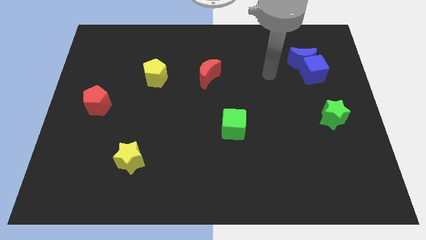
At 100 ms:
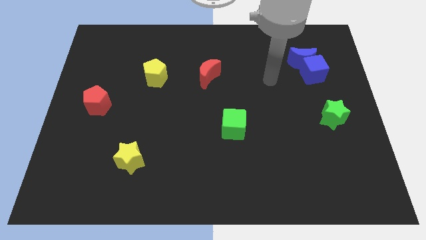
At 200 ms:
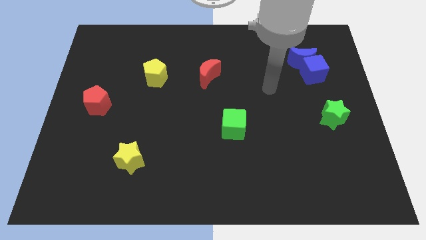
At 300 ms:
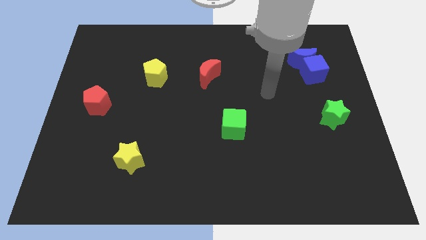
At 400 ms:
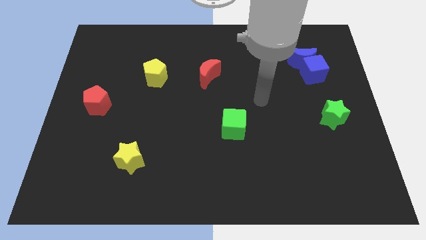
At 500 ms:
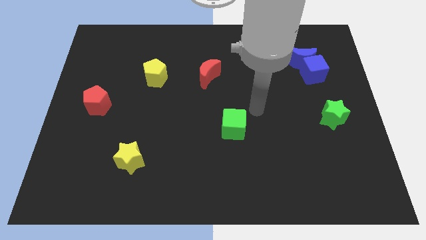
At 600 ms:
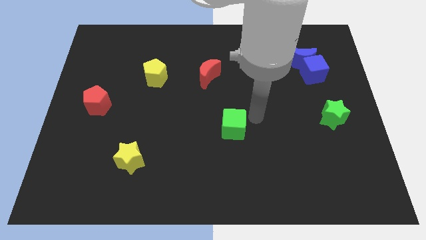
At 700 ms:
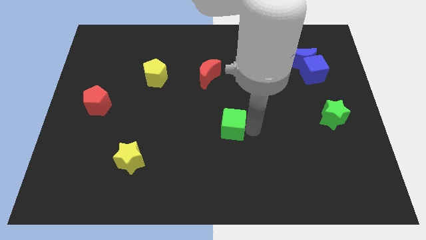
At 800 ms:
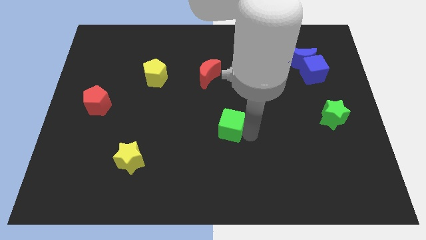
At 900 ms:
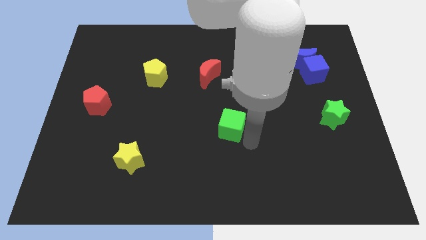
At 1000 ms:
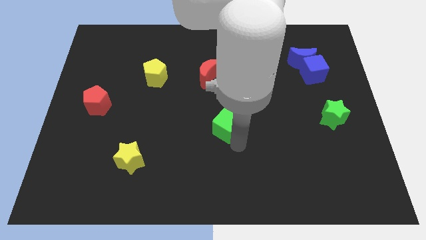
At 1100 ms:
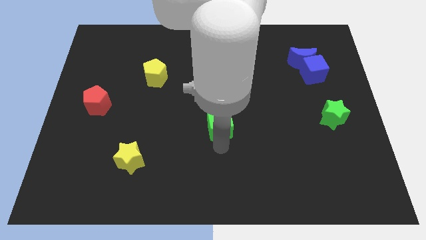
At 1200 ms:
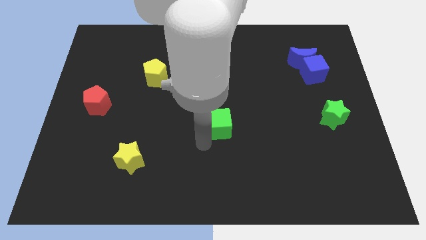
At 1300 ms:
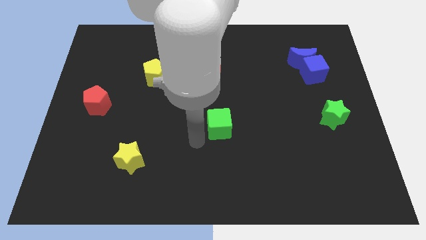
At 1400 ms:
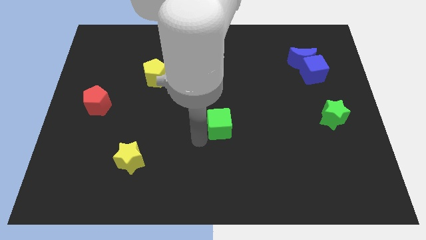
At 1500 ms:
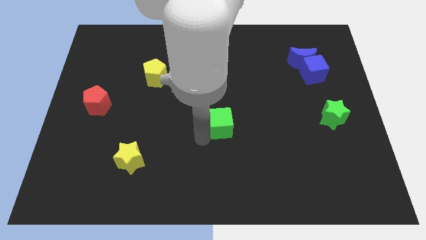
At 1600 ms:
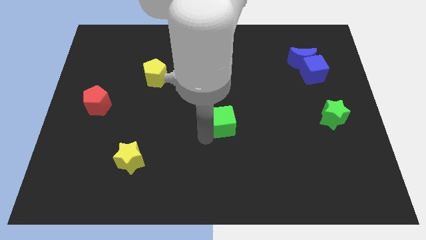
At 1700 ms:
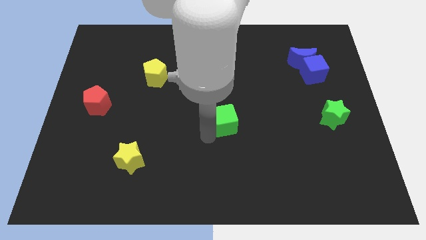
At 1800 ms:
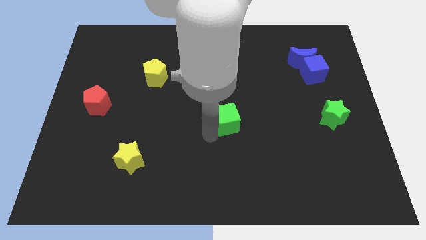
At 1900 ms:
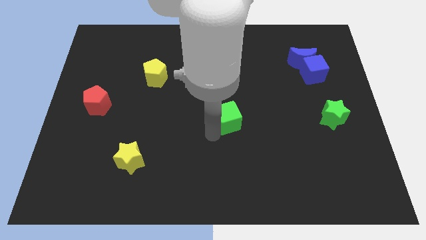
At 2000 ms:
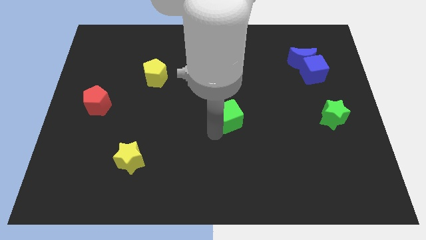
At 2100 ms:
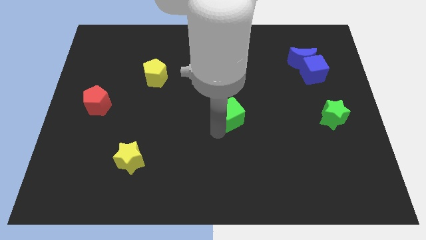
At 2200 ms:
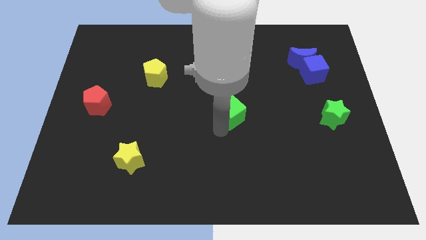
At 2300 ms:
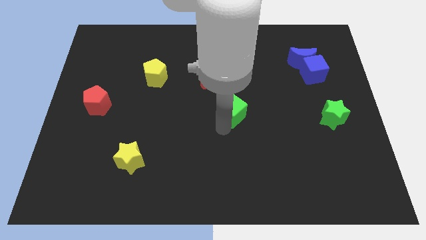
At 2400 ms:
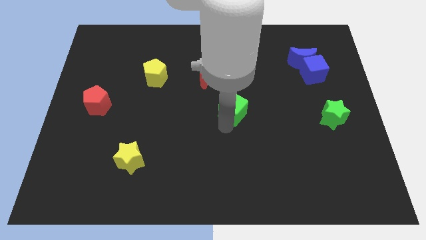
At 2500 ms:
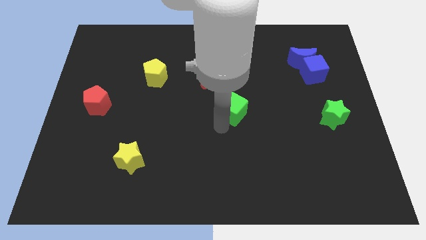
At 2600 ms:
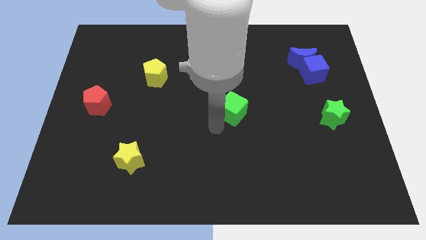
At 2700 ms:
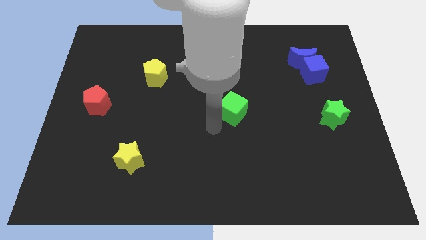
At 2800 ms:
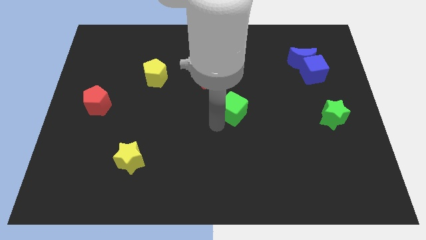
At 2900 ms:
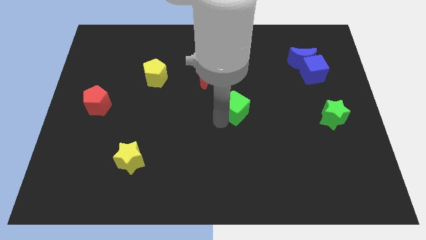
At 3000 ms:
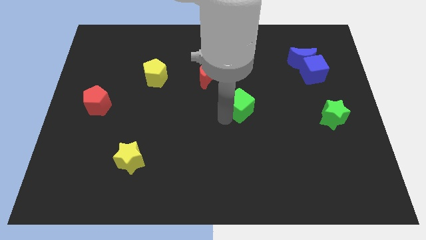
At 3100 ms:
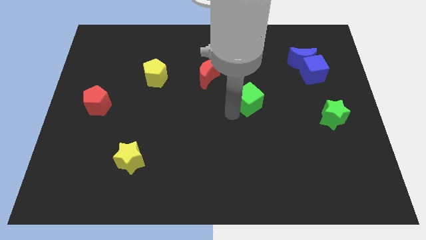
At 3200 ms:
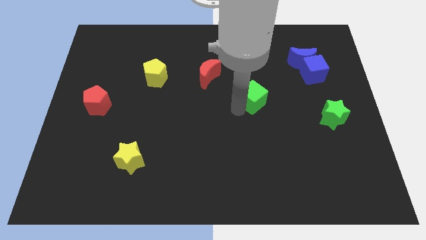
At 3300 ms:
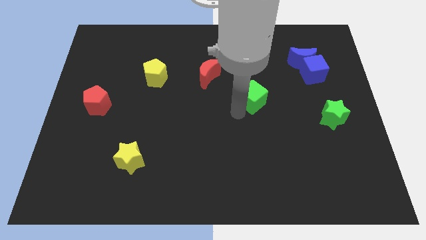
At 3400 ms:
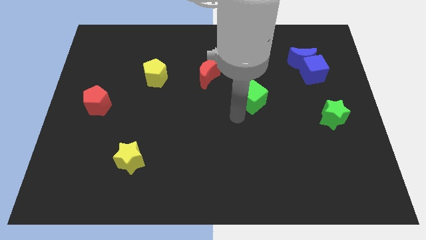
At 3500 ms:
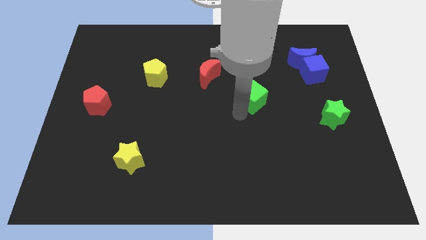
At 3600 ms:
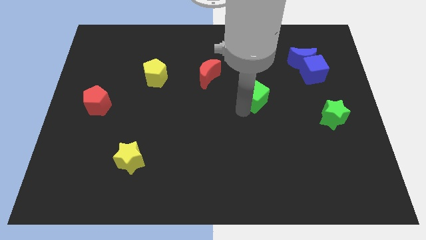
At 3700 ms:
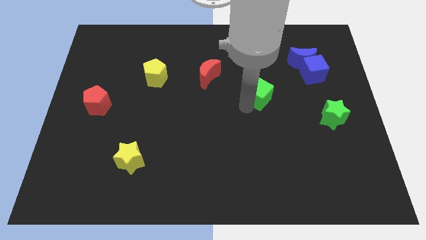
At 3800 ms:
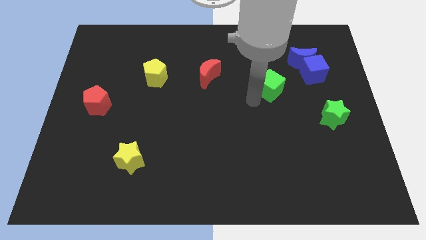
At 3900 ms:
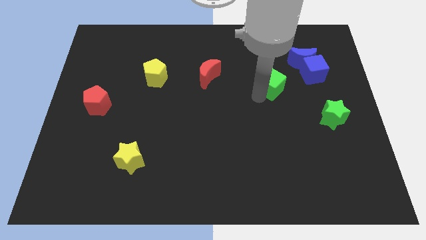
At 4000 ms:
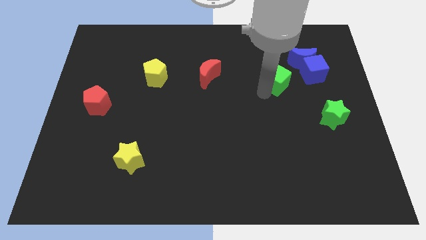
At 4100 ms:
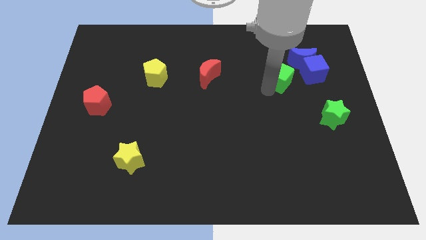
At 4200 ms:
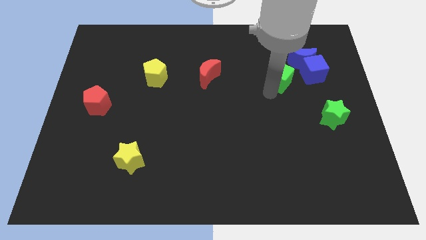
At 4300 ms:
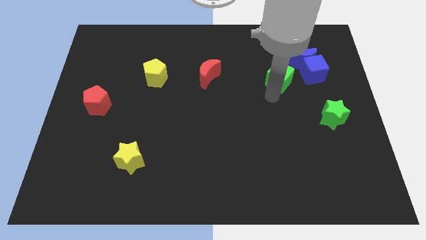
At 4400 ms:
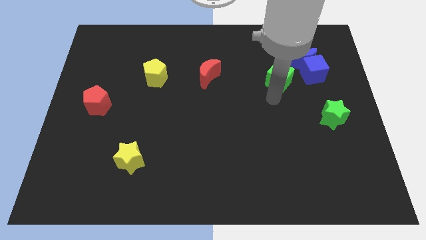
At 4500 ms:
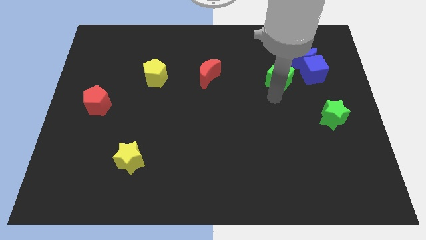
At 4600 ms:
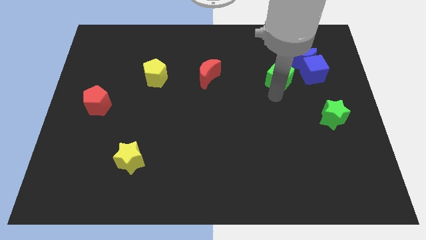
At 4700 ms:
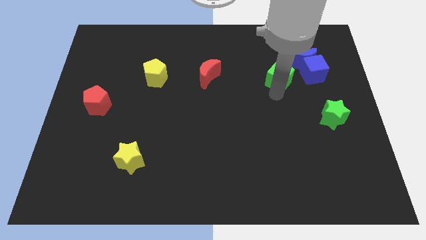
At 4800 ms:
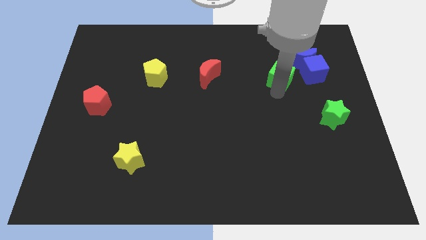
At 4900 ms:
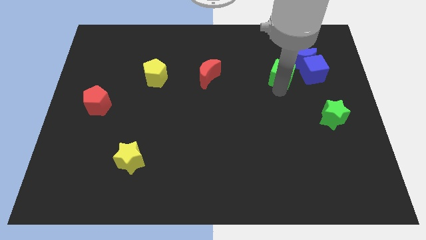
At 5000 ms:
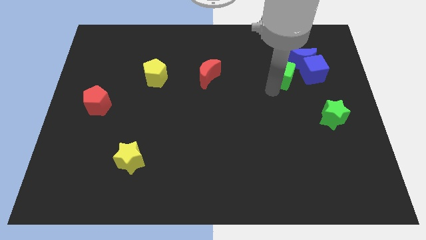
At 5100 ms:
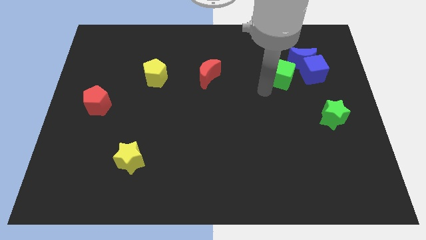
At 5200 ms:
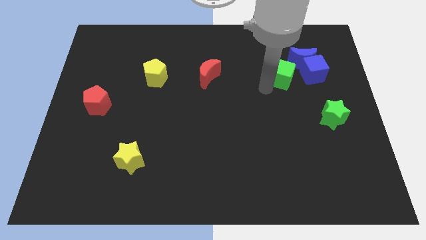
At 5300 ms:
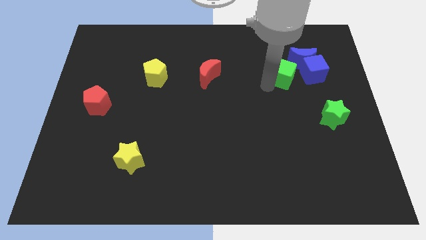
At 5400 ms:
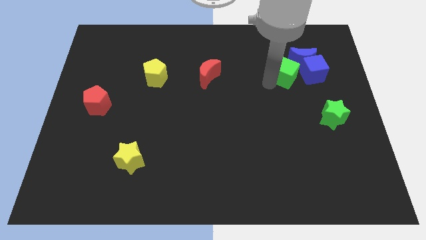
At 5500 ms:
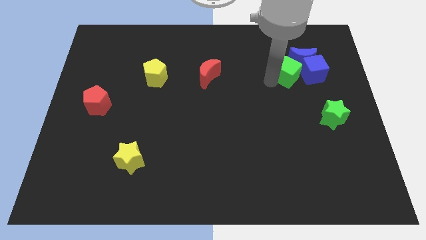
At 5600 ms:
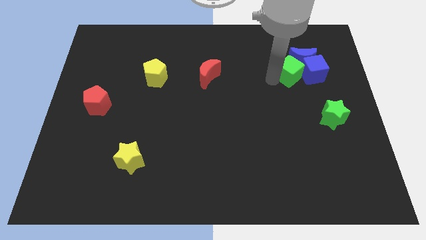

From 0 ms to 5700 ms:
move the green cube close to the blue moon

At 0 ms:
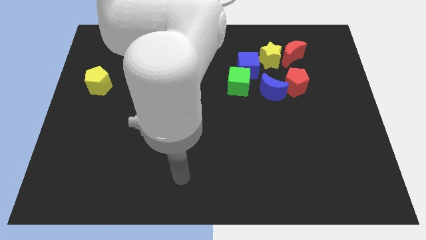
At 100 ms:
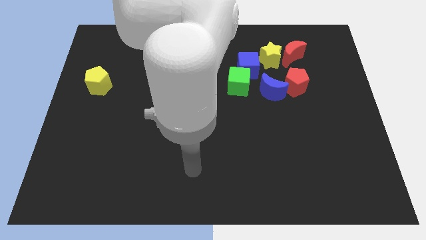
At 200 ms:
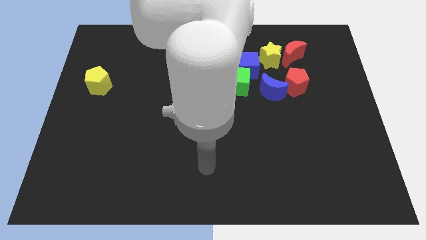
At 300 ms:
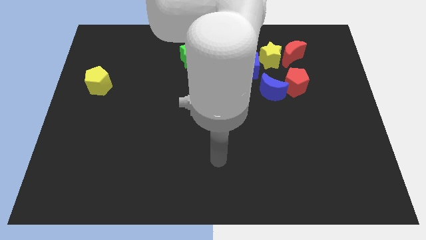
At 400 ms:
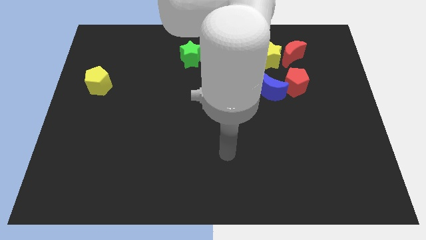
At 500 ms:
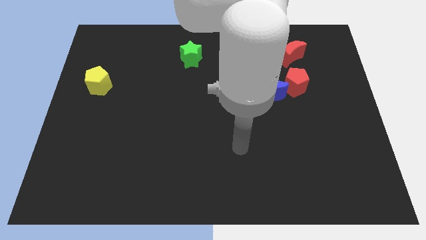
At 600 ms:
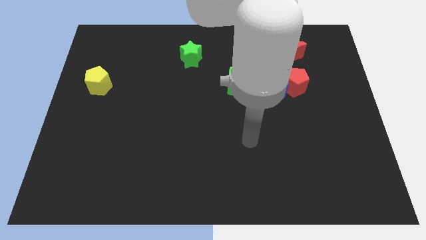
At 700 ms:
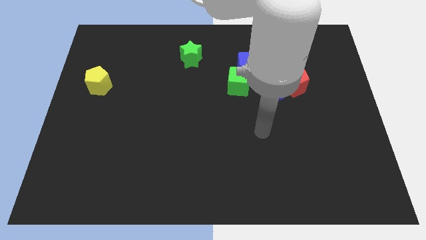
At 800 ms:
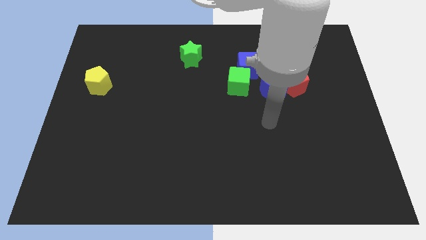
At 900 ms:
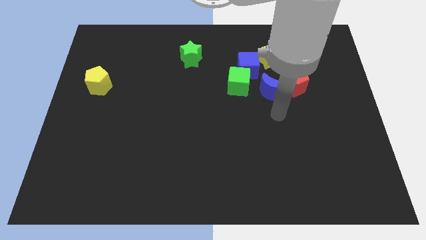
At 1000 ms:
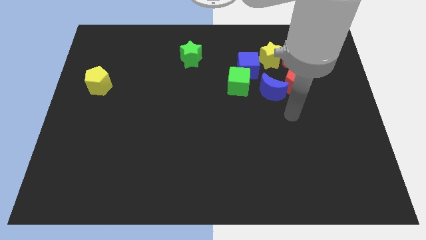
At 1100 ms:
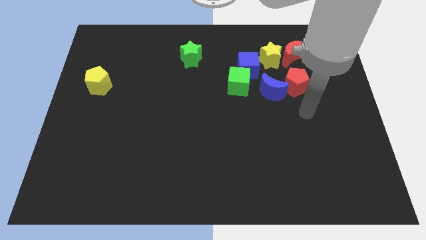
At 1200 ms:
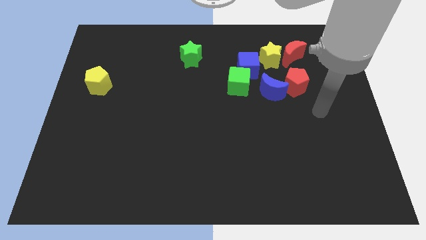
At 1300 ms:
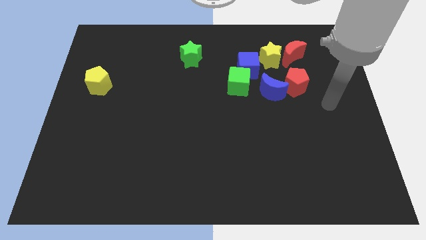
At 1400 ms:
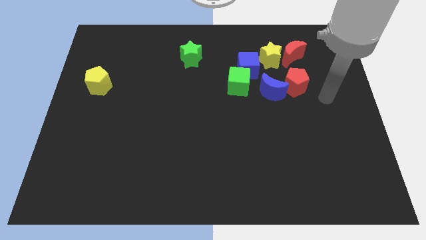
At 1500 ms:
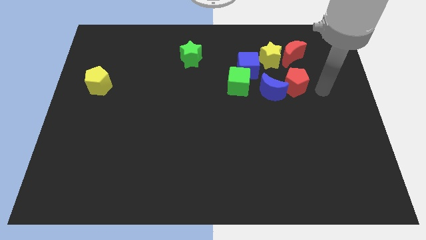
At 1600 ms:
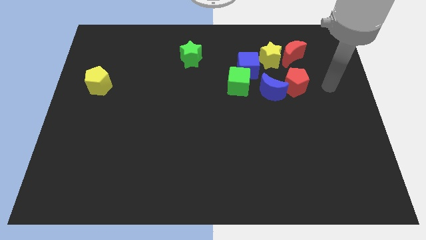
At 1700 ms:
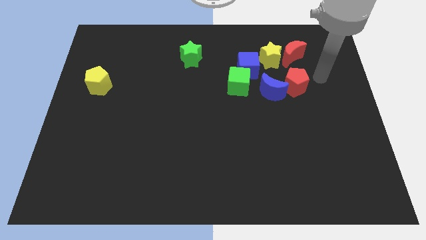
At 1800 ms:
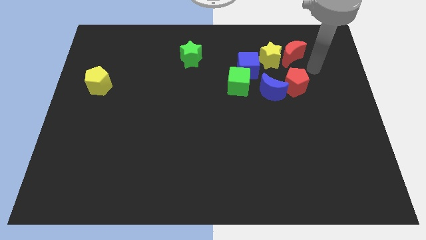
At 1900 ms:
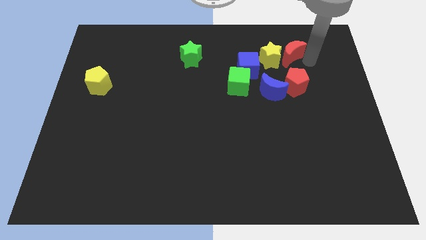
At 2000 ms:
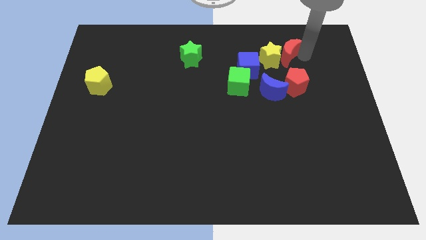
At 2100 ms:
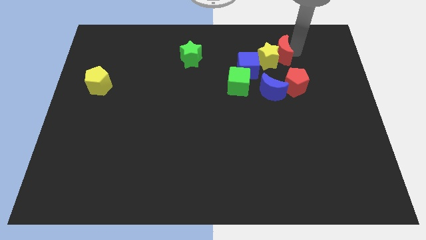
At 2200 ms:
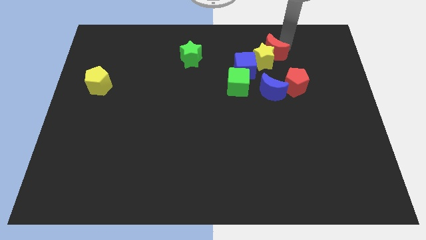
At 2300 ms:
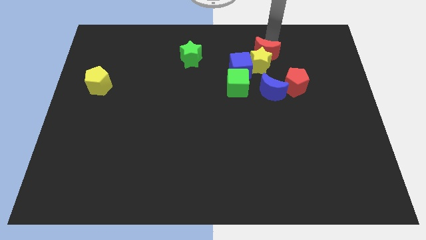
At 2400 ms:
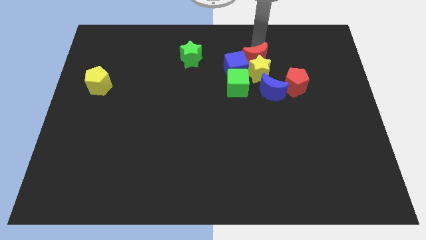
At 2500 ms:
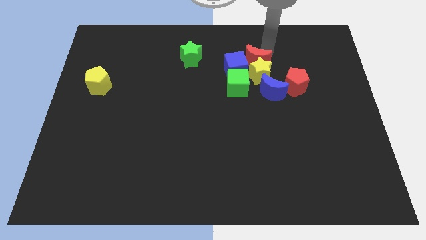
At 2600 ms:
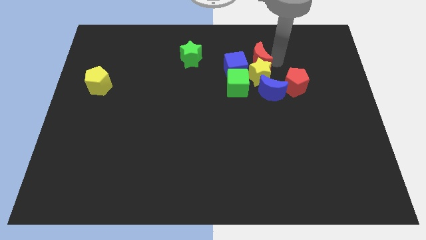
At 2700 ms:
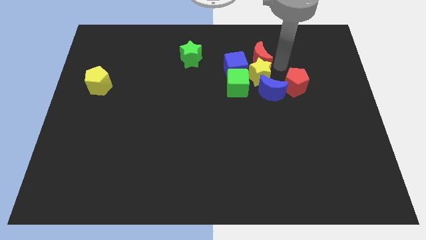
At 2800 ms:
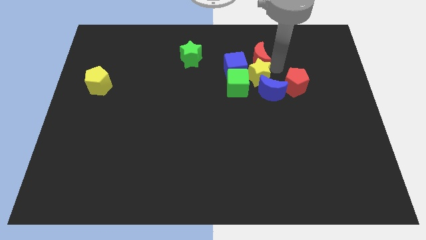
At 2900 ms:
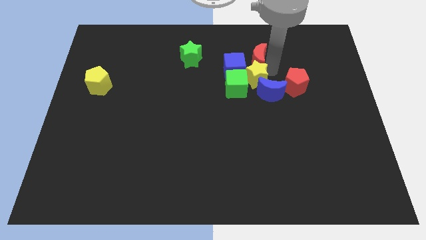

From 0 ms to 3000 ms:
move the yellow star to the green cube
